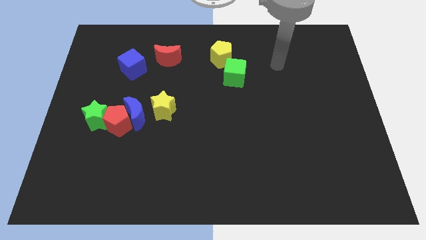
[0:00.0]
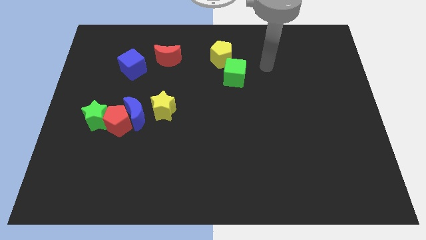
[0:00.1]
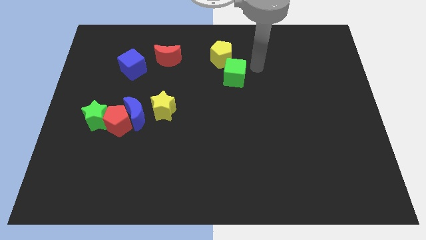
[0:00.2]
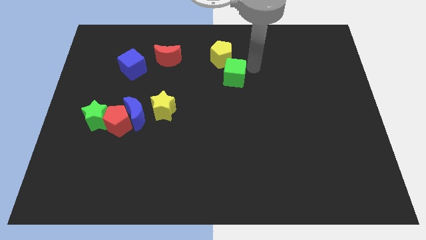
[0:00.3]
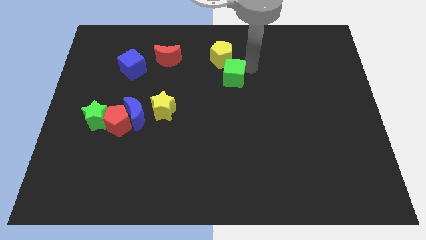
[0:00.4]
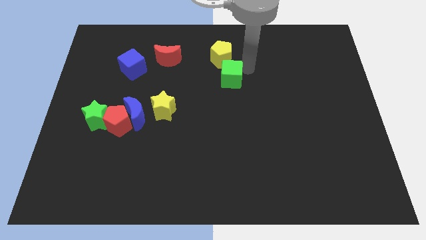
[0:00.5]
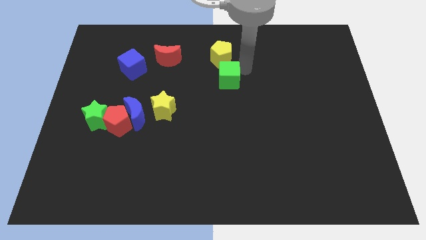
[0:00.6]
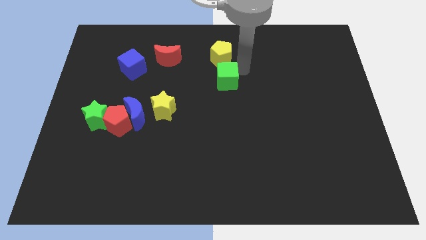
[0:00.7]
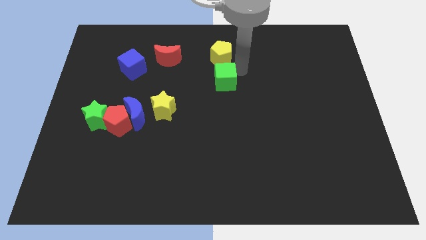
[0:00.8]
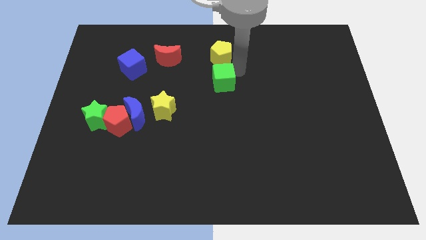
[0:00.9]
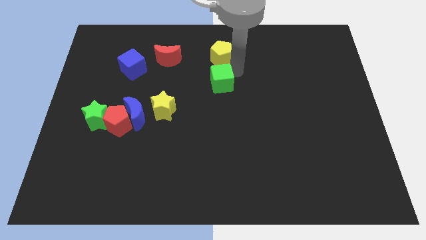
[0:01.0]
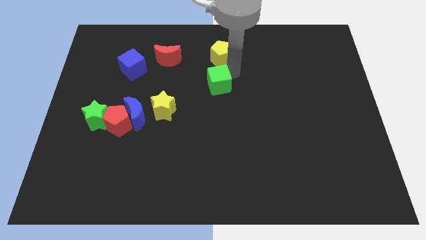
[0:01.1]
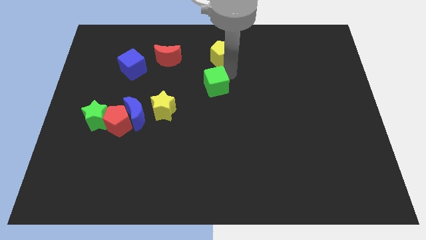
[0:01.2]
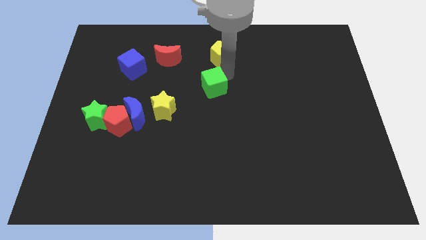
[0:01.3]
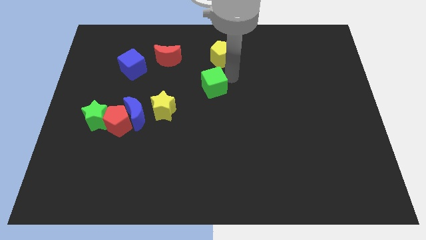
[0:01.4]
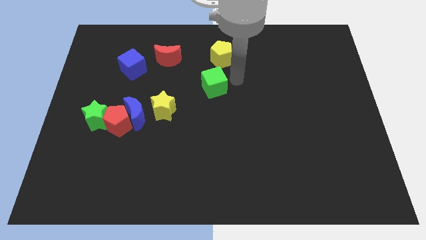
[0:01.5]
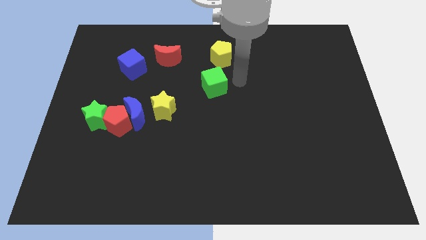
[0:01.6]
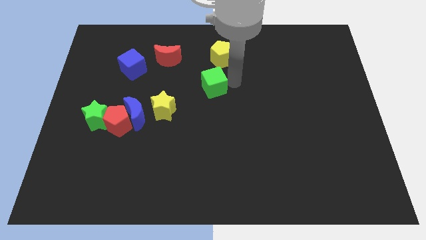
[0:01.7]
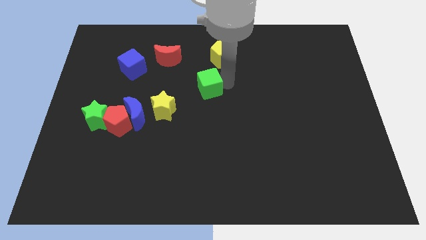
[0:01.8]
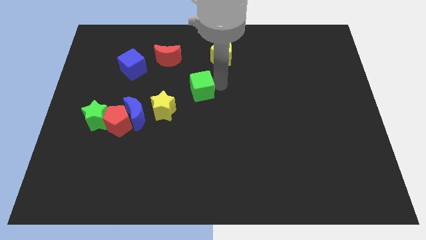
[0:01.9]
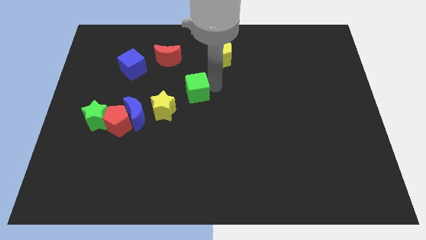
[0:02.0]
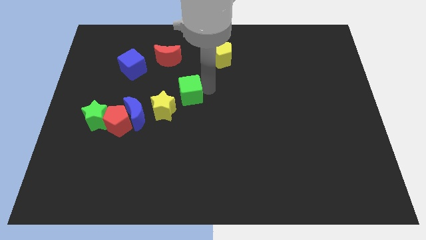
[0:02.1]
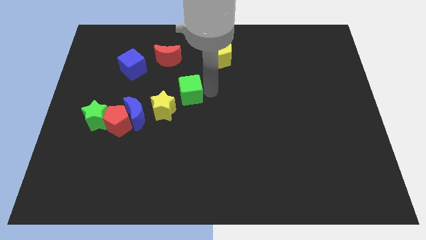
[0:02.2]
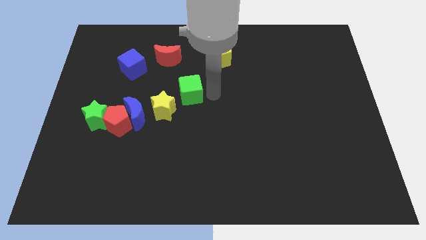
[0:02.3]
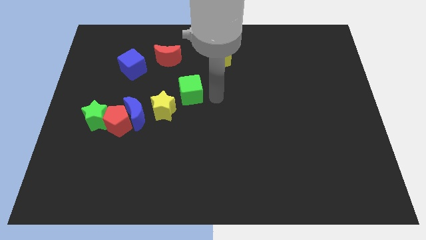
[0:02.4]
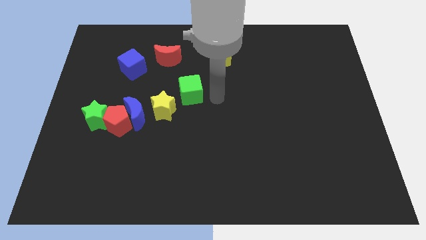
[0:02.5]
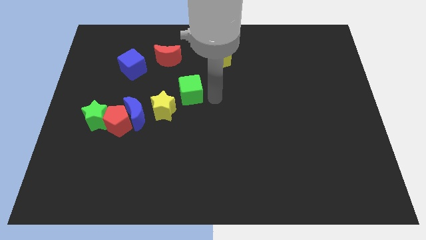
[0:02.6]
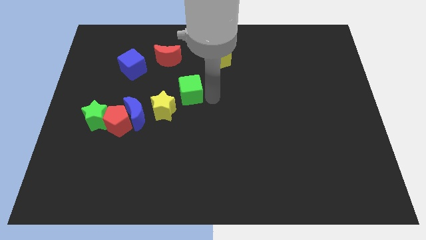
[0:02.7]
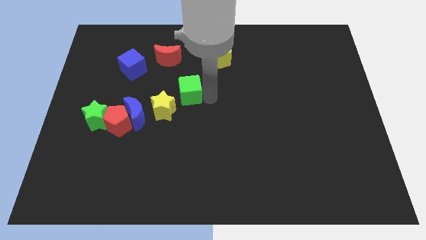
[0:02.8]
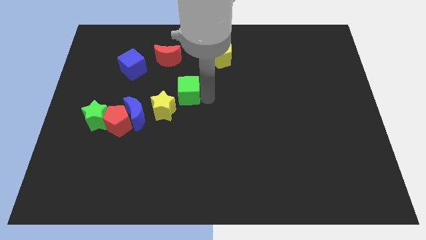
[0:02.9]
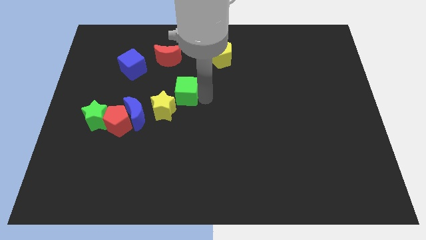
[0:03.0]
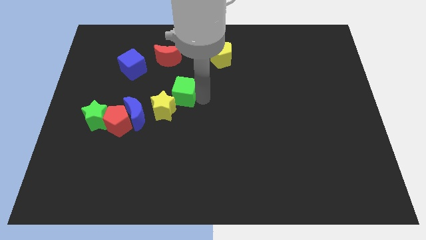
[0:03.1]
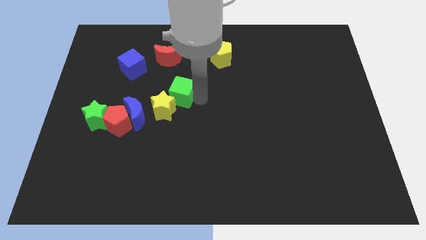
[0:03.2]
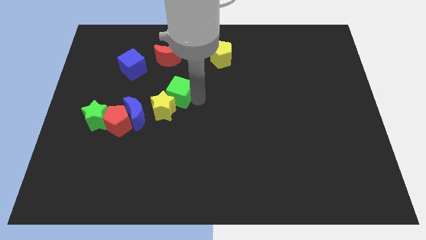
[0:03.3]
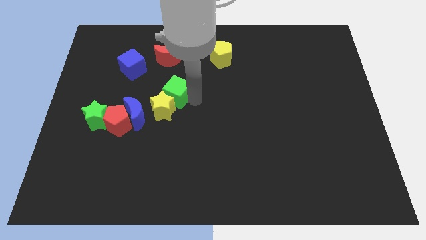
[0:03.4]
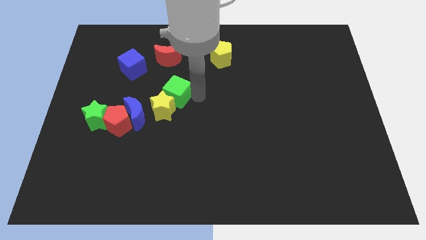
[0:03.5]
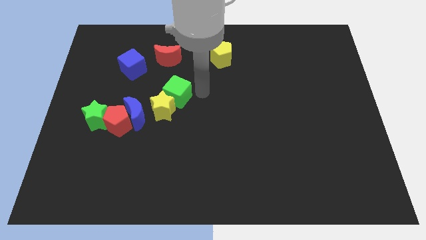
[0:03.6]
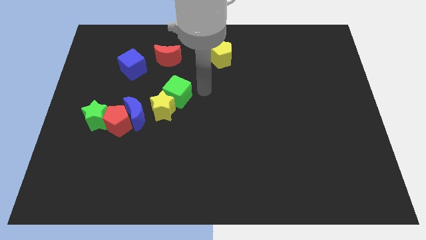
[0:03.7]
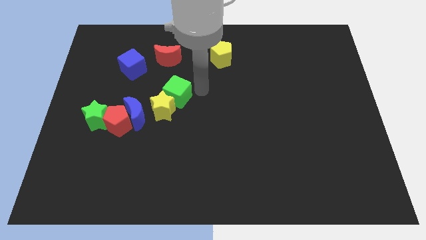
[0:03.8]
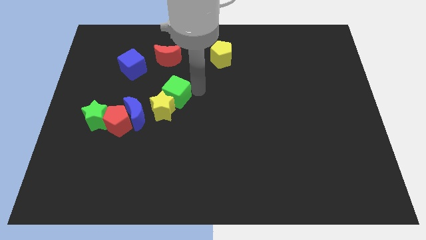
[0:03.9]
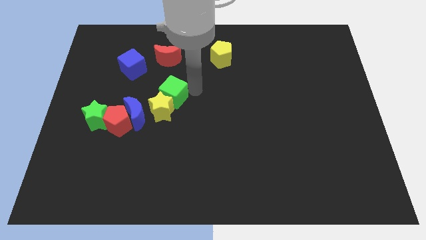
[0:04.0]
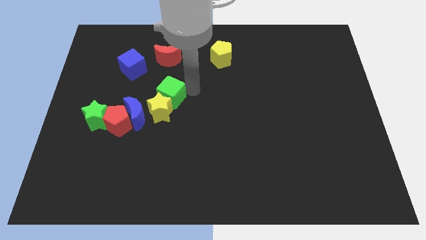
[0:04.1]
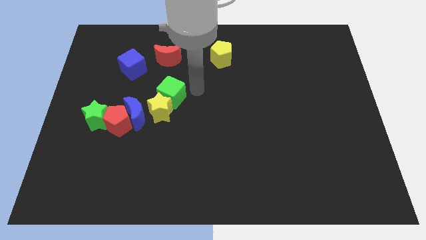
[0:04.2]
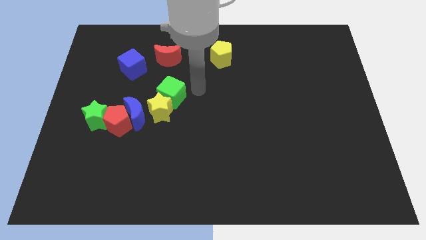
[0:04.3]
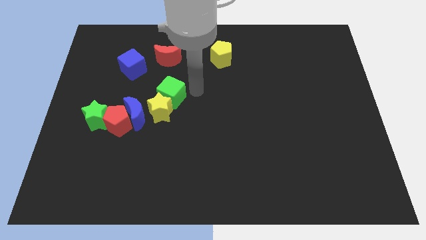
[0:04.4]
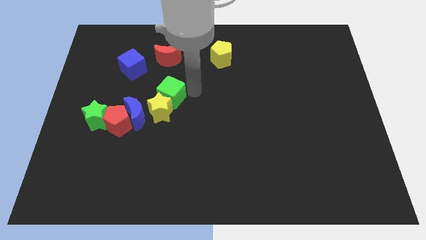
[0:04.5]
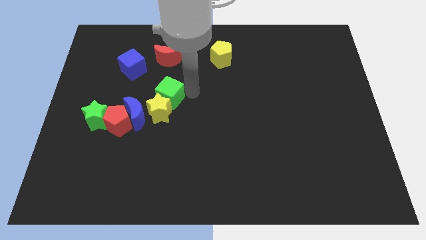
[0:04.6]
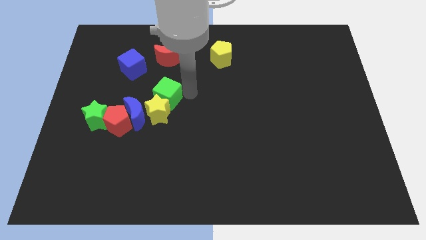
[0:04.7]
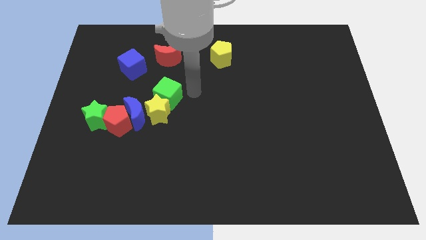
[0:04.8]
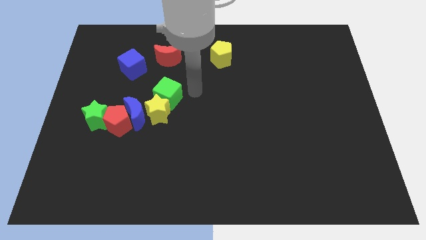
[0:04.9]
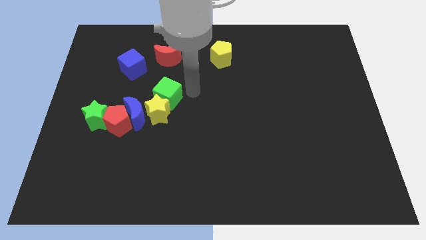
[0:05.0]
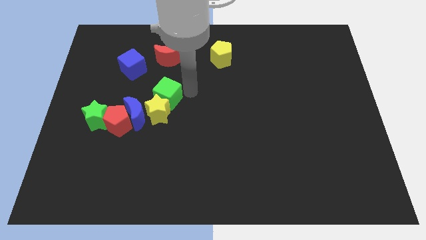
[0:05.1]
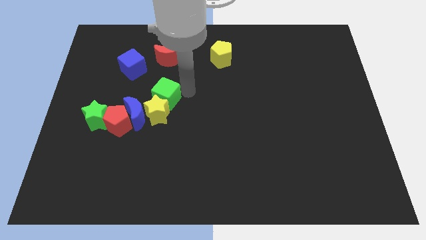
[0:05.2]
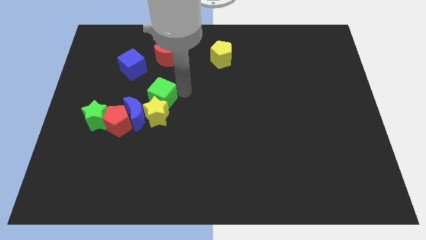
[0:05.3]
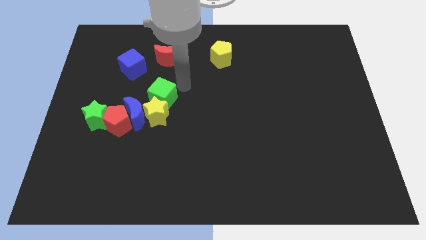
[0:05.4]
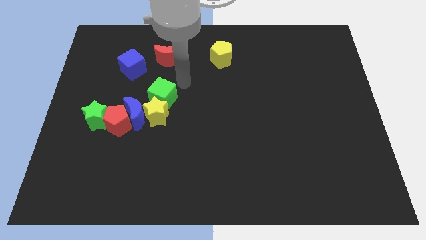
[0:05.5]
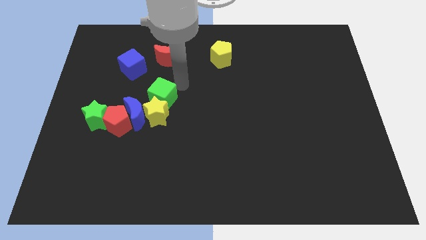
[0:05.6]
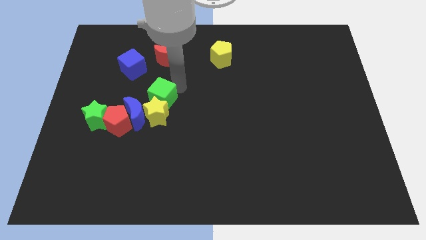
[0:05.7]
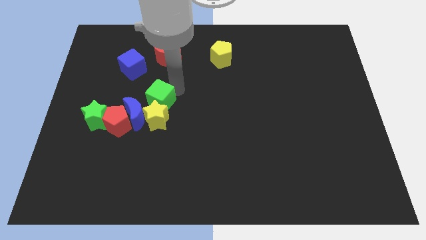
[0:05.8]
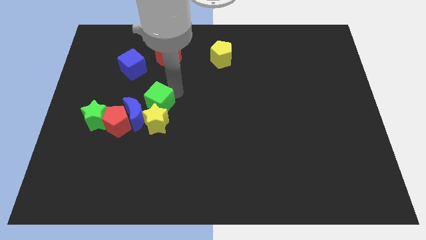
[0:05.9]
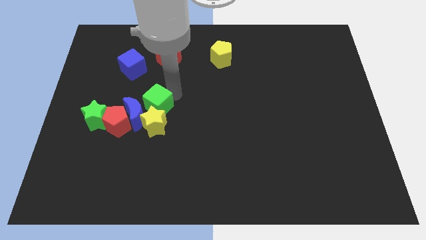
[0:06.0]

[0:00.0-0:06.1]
put the green cube towards the blue moon

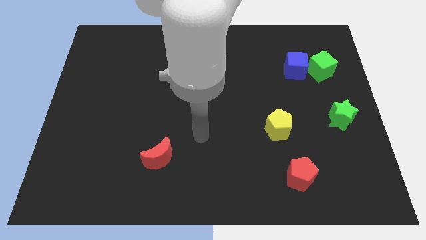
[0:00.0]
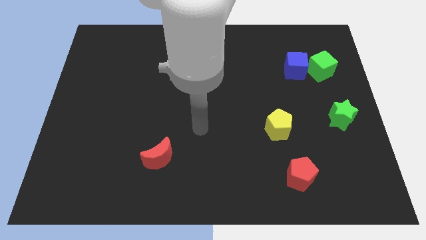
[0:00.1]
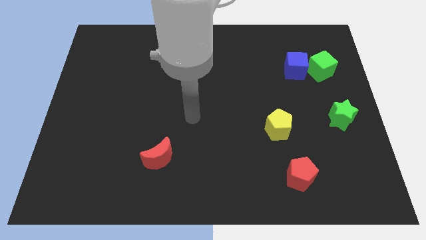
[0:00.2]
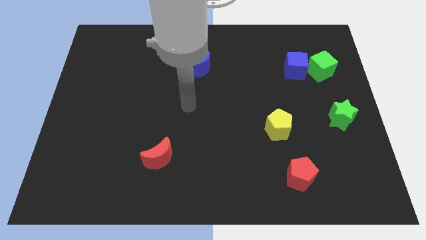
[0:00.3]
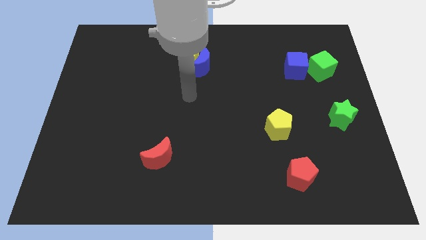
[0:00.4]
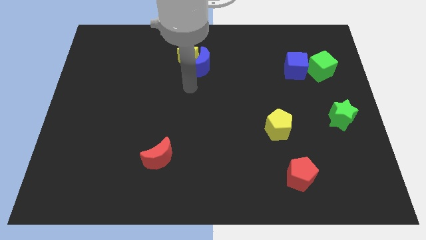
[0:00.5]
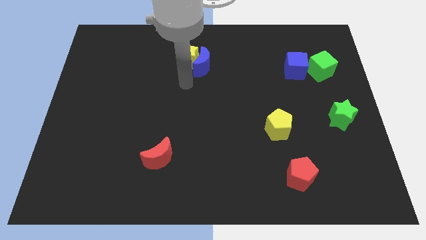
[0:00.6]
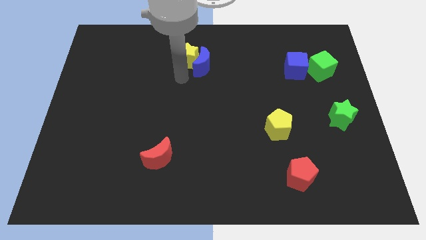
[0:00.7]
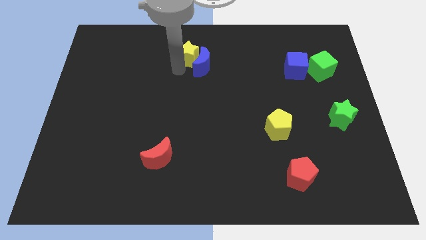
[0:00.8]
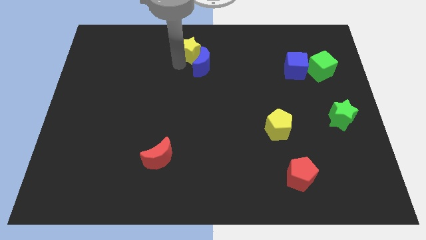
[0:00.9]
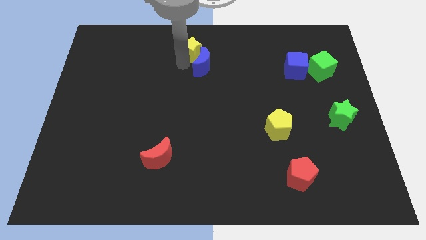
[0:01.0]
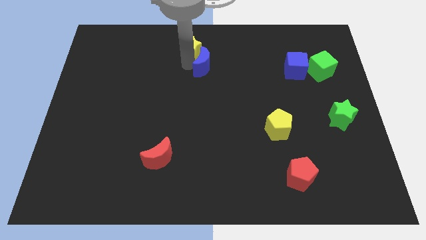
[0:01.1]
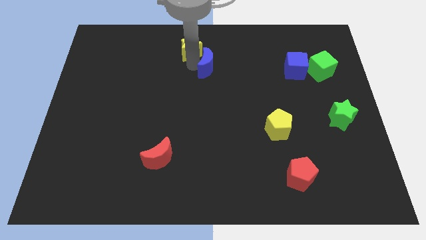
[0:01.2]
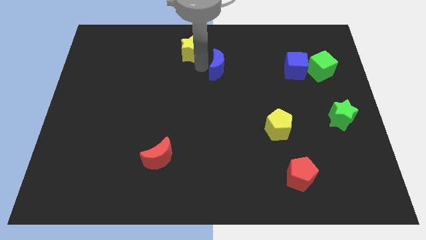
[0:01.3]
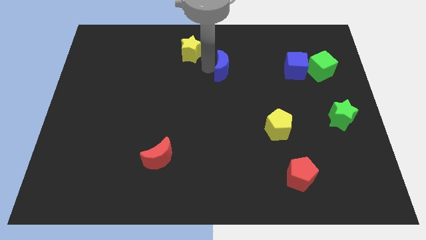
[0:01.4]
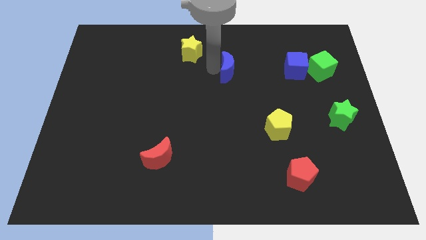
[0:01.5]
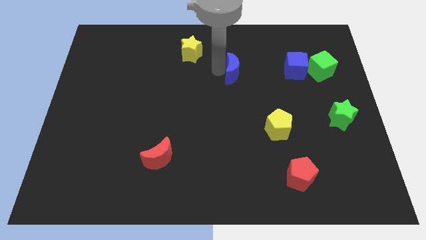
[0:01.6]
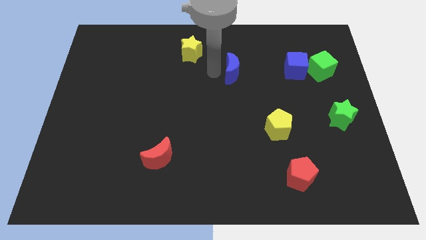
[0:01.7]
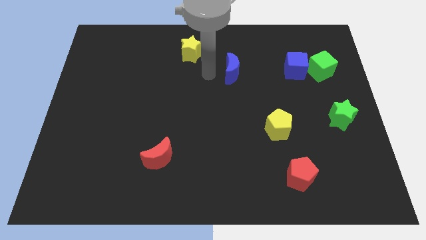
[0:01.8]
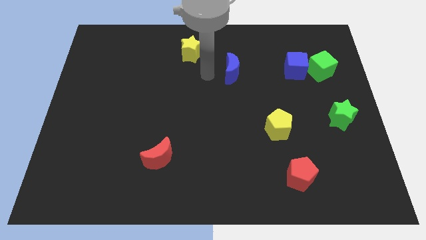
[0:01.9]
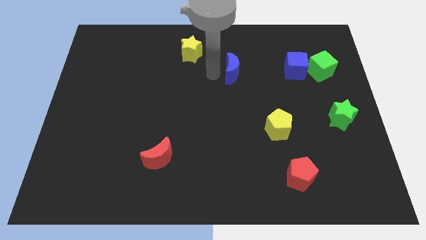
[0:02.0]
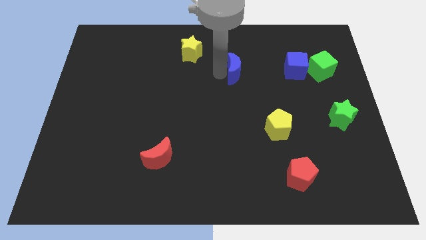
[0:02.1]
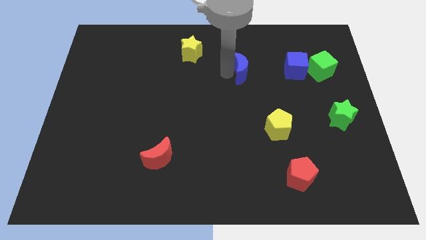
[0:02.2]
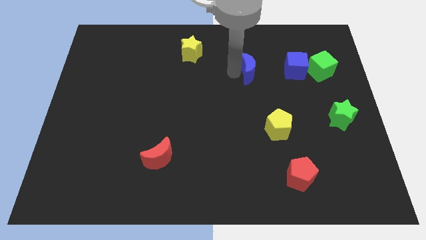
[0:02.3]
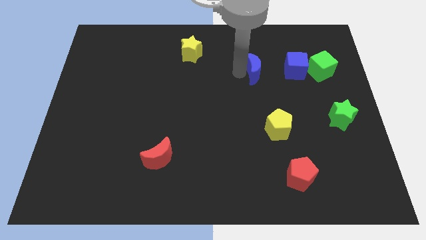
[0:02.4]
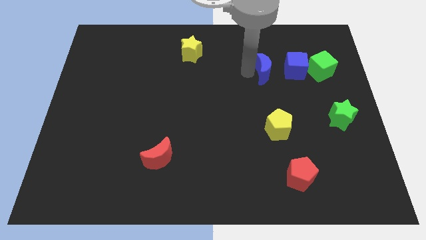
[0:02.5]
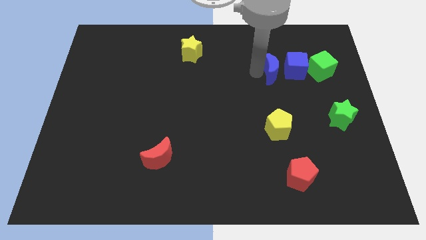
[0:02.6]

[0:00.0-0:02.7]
put the blue moon to the blue cube
